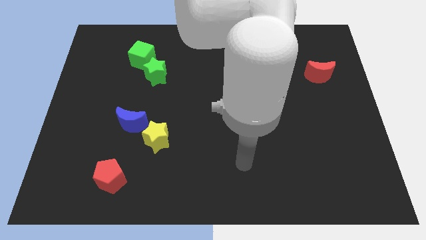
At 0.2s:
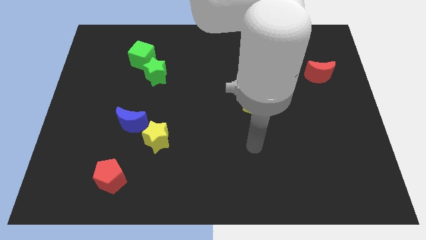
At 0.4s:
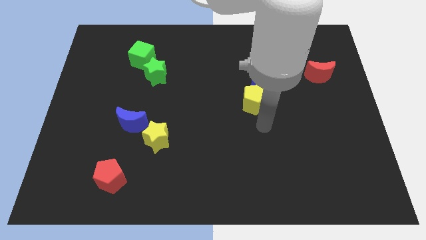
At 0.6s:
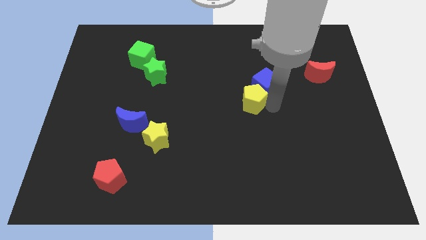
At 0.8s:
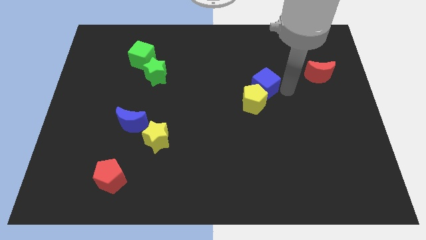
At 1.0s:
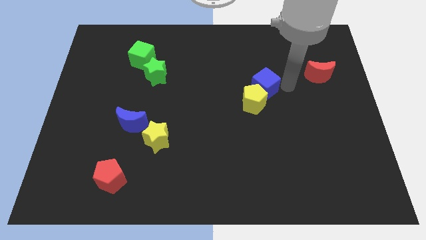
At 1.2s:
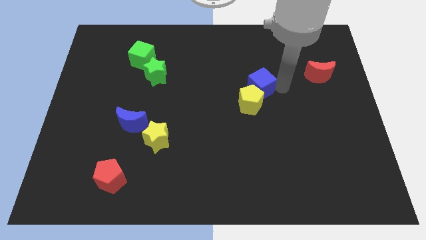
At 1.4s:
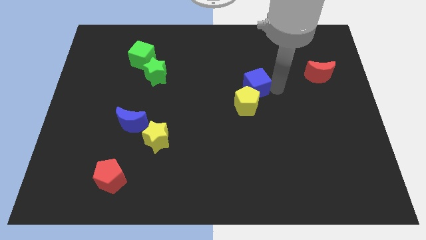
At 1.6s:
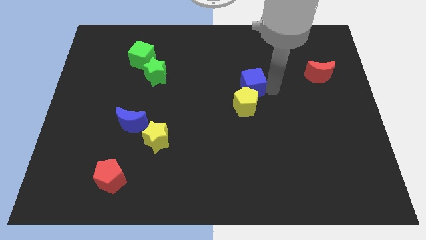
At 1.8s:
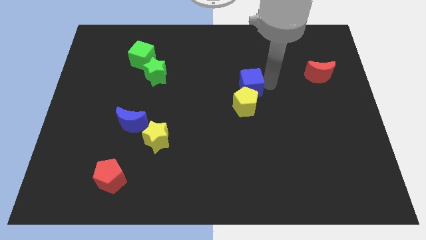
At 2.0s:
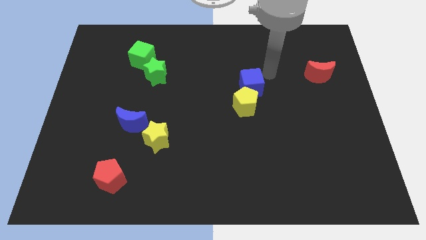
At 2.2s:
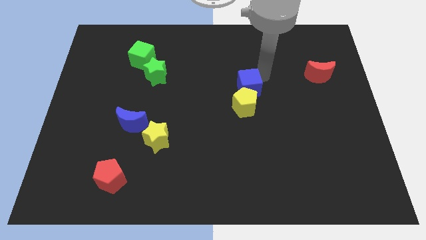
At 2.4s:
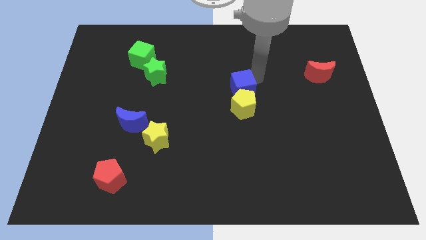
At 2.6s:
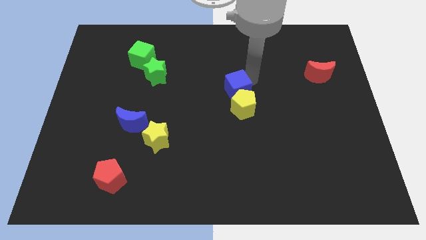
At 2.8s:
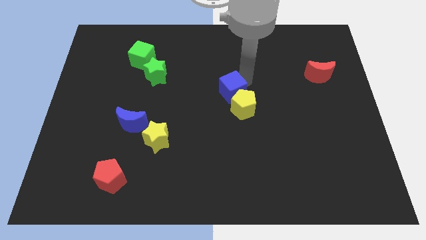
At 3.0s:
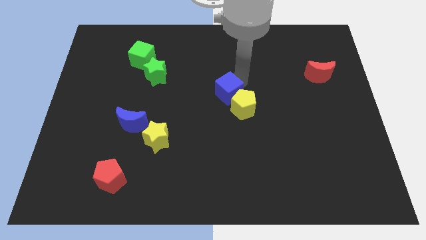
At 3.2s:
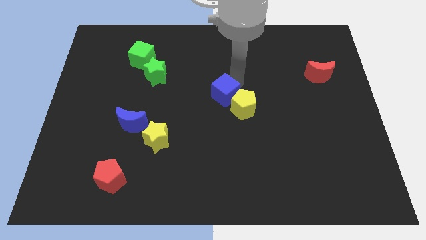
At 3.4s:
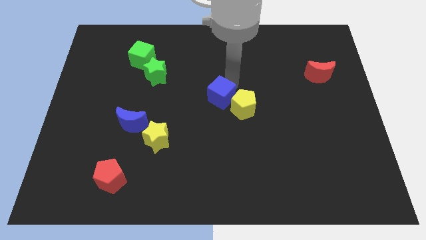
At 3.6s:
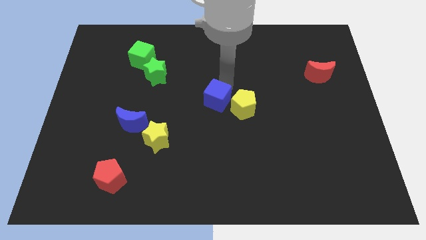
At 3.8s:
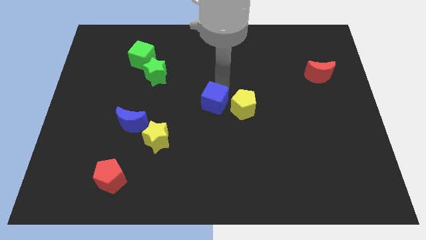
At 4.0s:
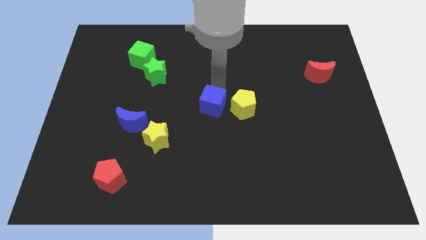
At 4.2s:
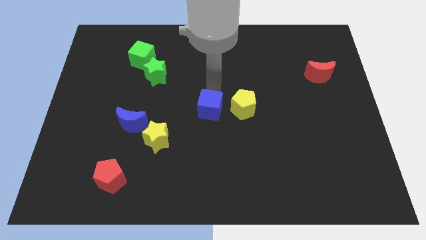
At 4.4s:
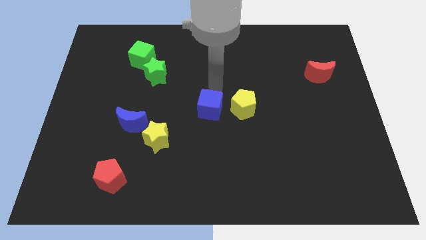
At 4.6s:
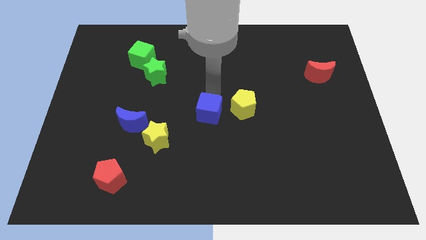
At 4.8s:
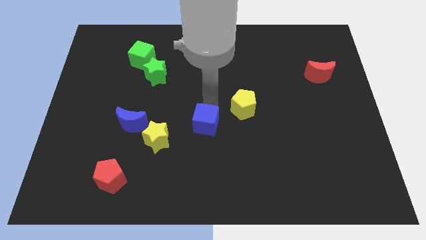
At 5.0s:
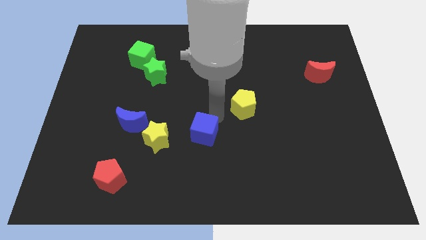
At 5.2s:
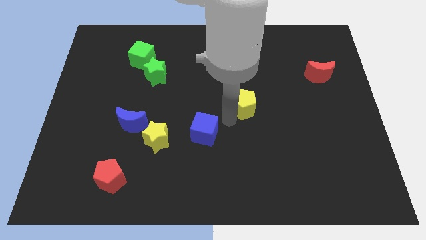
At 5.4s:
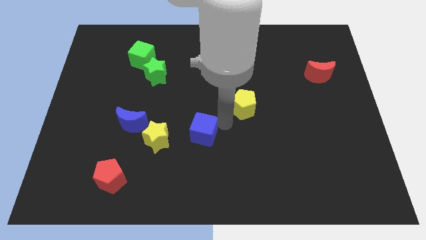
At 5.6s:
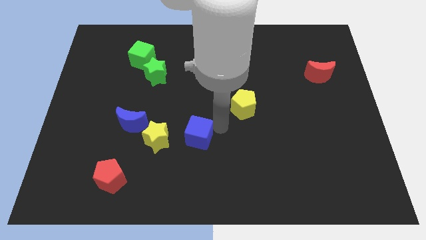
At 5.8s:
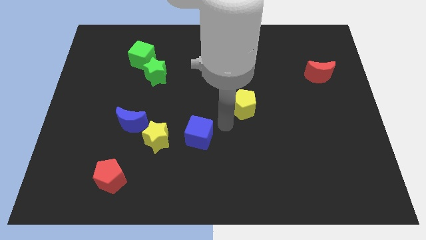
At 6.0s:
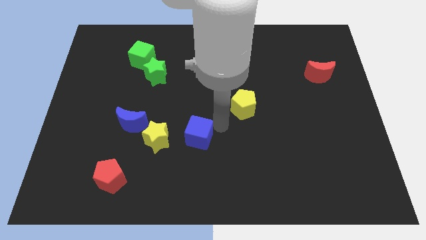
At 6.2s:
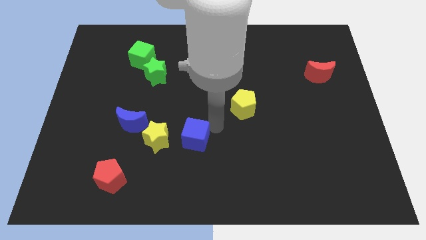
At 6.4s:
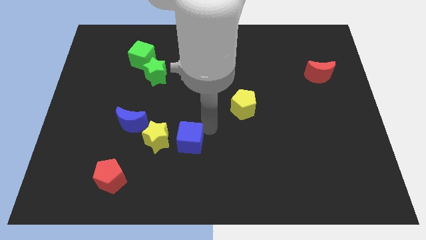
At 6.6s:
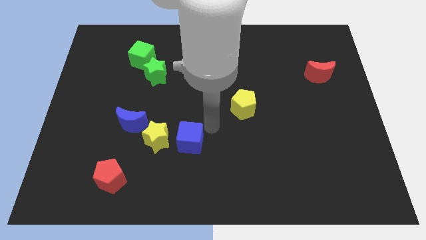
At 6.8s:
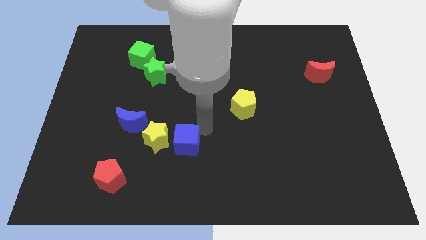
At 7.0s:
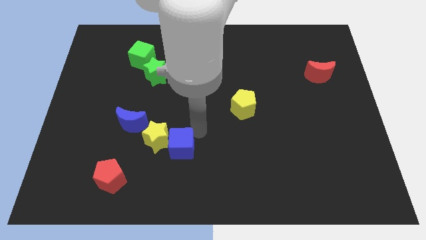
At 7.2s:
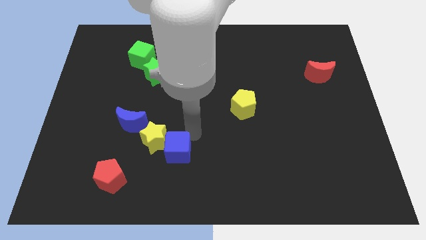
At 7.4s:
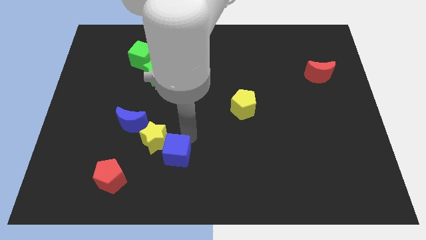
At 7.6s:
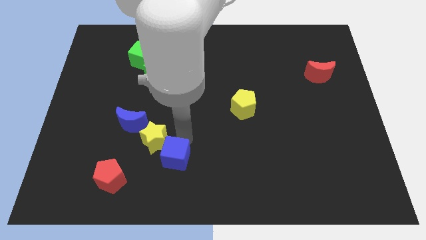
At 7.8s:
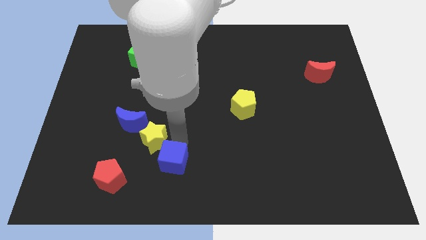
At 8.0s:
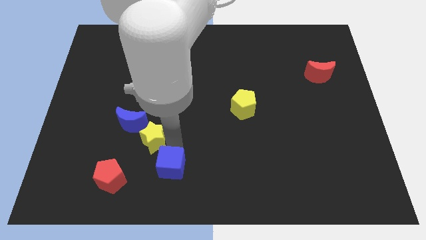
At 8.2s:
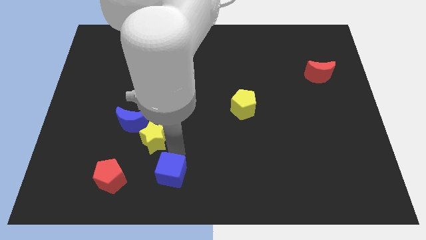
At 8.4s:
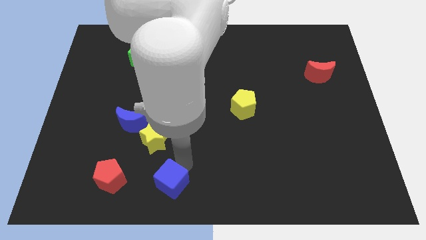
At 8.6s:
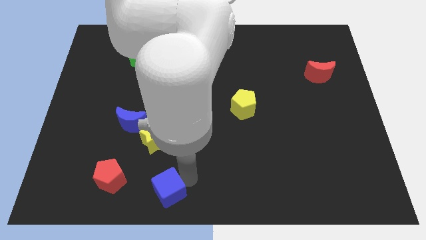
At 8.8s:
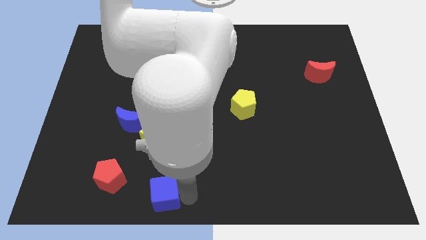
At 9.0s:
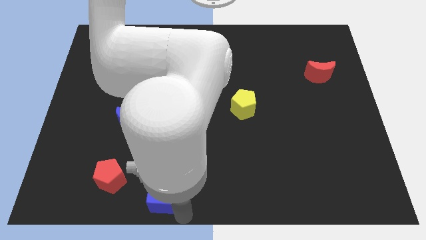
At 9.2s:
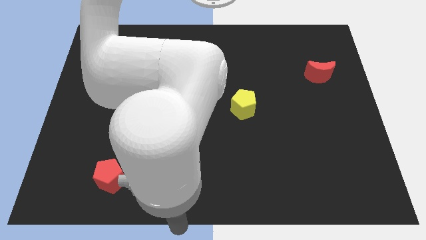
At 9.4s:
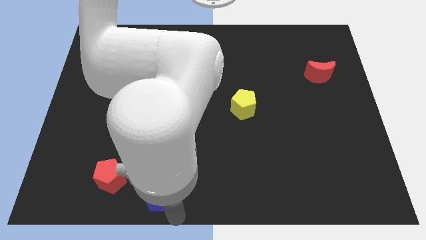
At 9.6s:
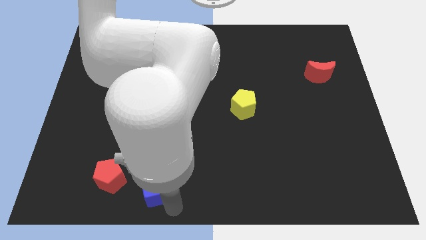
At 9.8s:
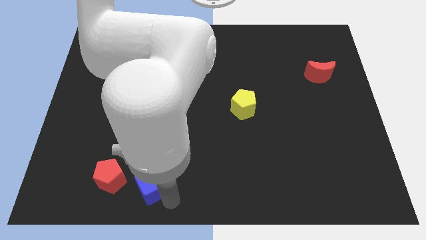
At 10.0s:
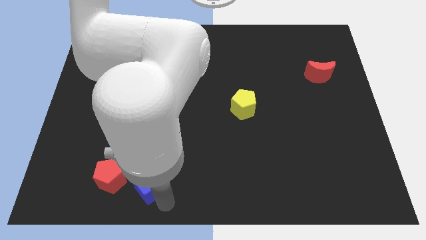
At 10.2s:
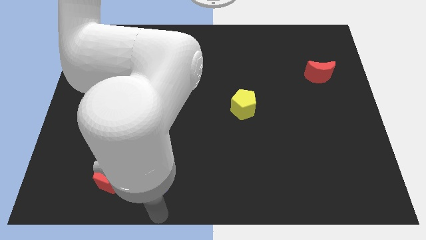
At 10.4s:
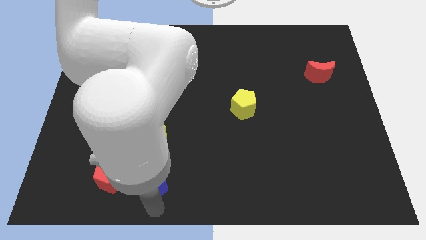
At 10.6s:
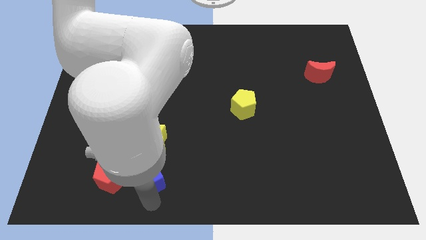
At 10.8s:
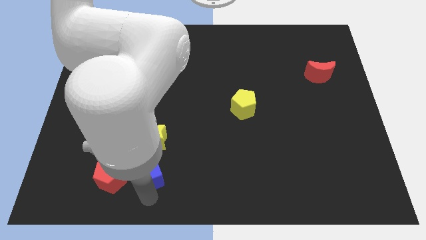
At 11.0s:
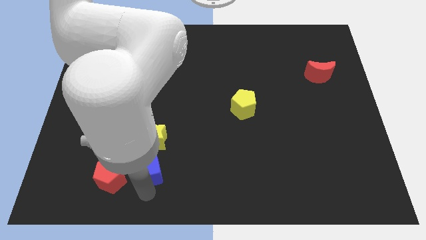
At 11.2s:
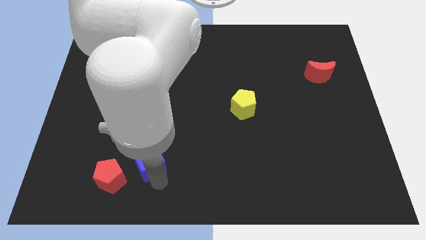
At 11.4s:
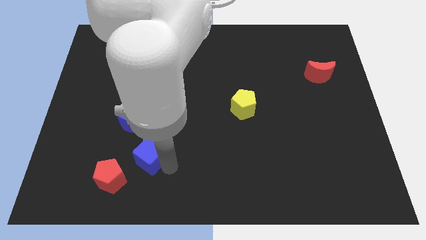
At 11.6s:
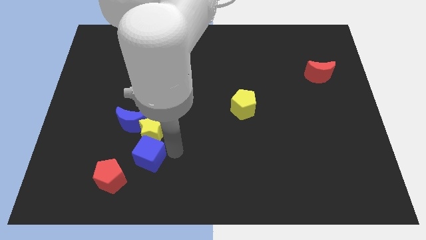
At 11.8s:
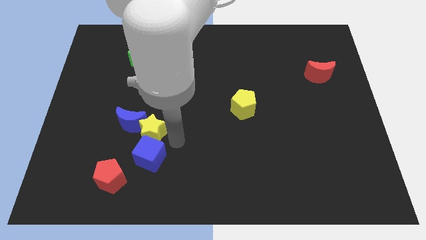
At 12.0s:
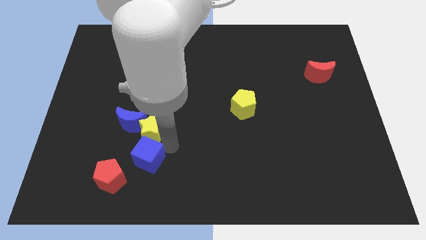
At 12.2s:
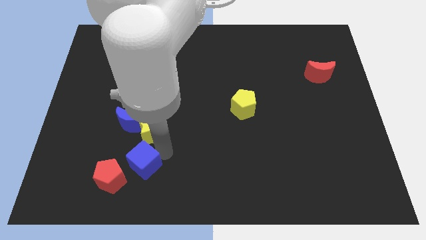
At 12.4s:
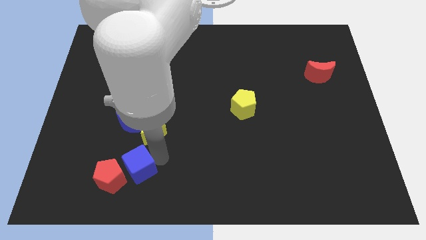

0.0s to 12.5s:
put the blue cube close to the red pentagon

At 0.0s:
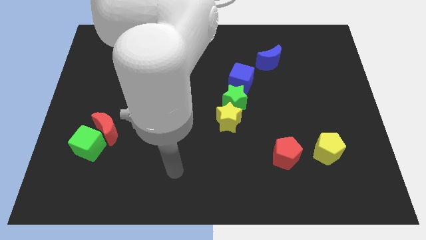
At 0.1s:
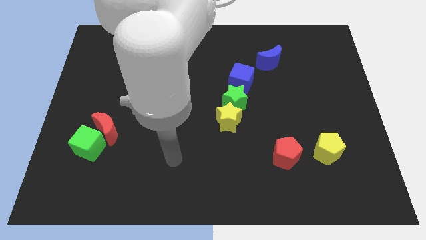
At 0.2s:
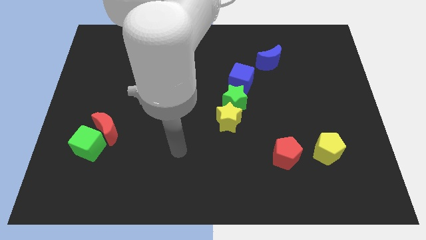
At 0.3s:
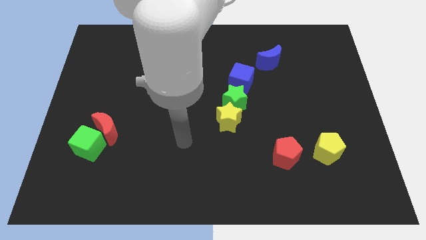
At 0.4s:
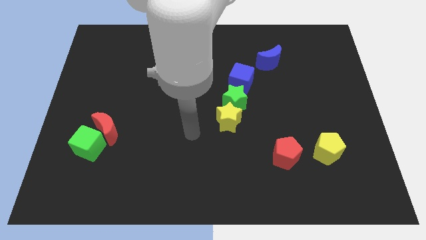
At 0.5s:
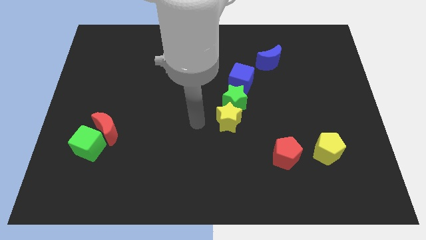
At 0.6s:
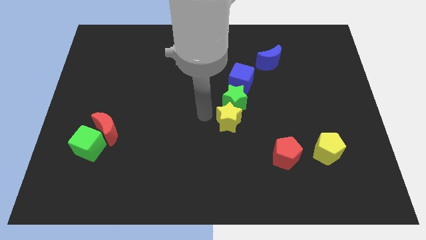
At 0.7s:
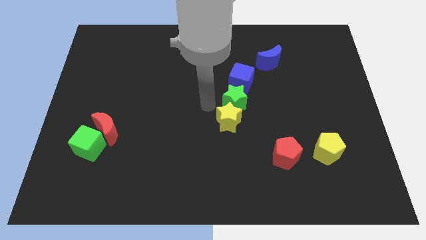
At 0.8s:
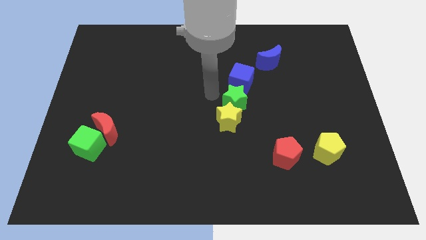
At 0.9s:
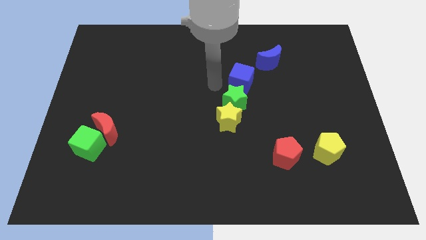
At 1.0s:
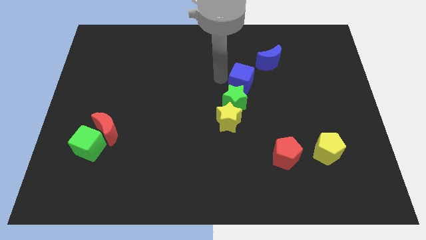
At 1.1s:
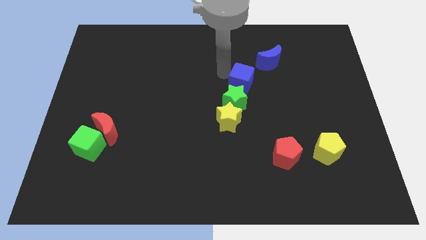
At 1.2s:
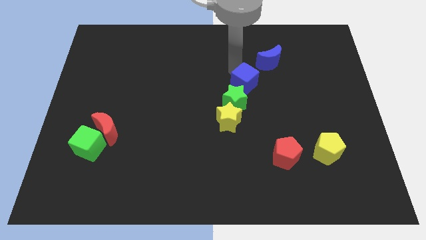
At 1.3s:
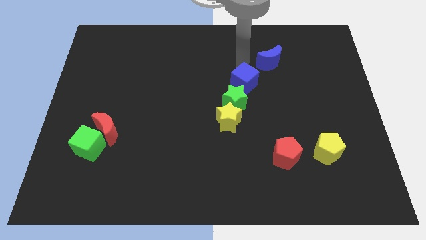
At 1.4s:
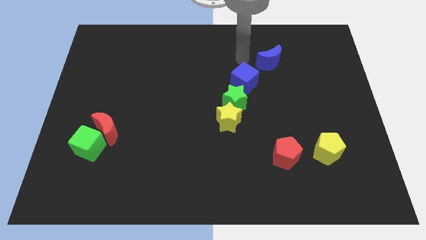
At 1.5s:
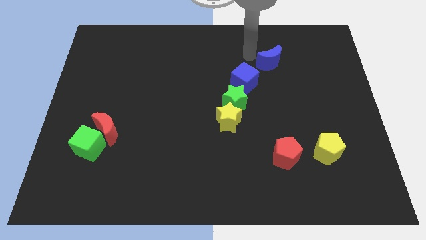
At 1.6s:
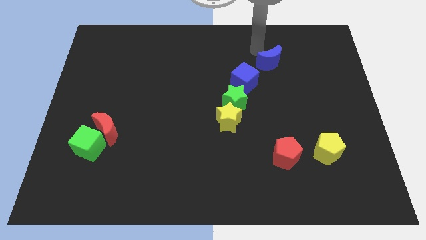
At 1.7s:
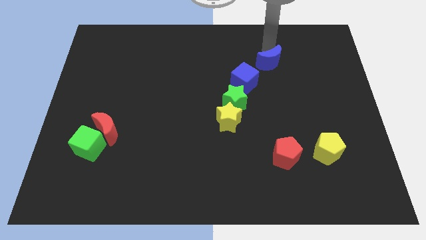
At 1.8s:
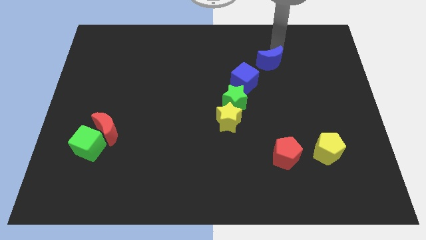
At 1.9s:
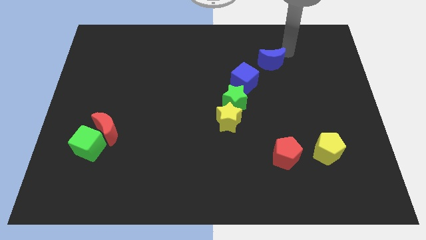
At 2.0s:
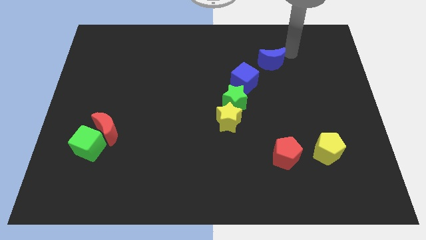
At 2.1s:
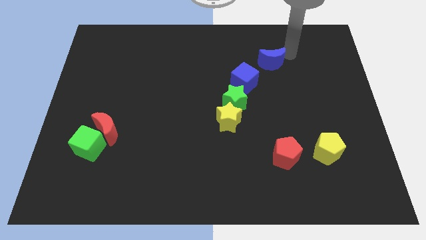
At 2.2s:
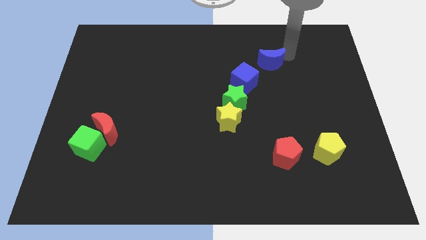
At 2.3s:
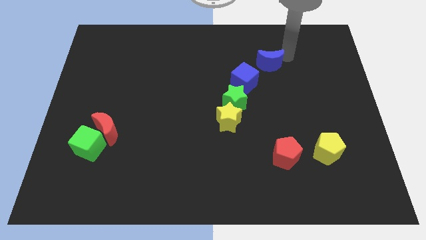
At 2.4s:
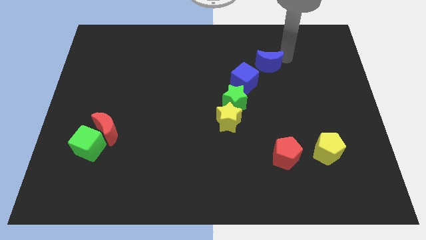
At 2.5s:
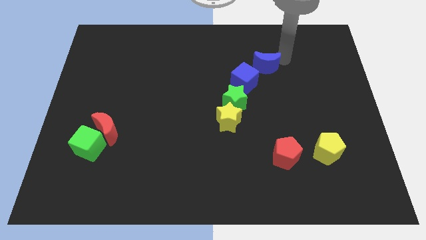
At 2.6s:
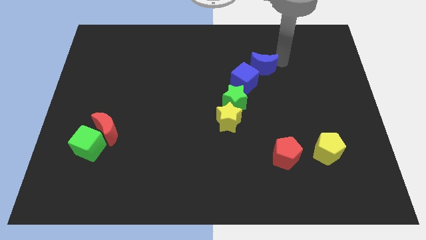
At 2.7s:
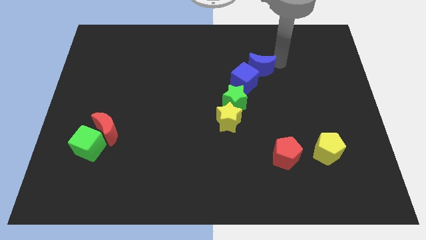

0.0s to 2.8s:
slide the blue moon to the blue cube
